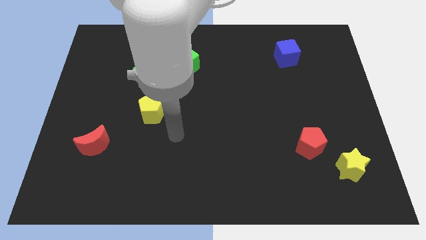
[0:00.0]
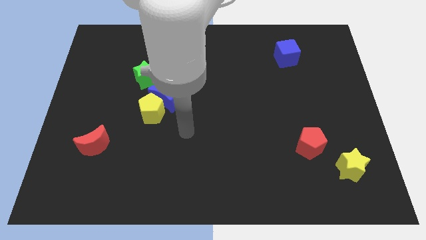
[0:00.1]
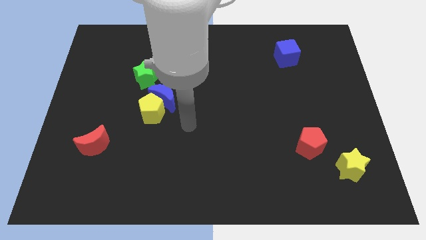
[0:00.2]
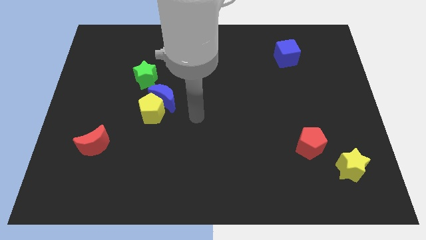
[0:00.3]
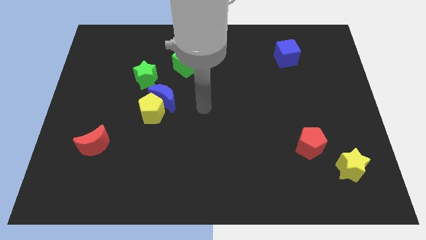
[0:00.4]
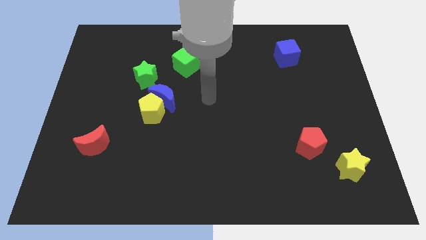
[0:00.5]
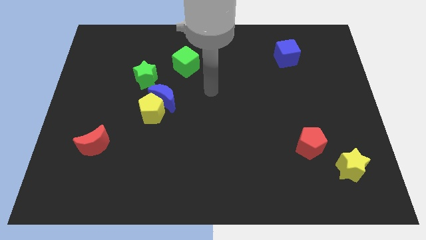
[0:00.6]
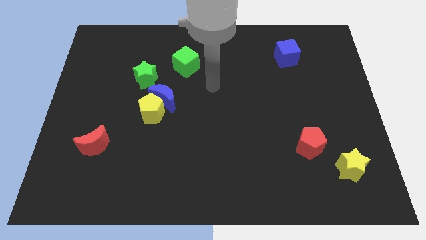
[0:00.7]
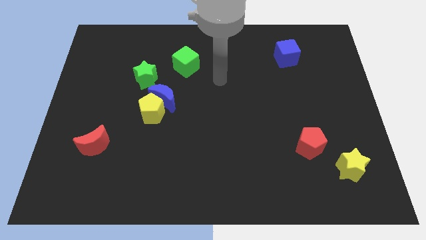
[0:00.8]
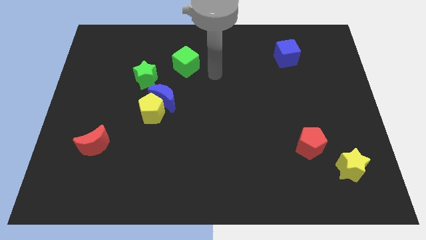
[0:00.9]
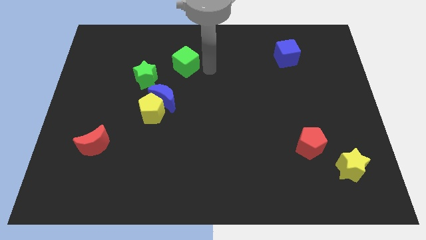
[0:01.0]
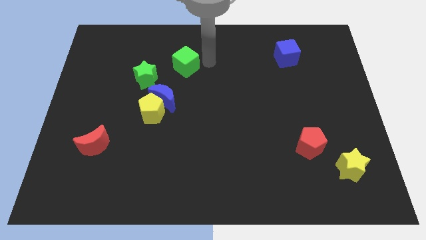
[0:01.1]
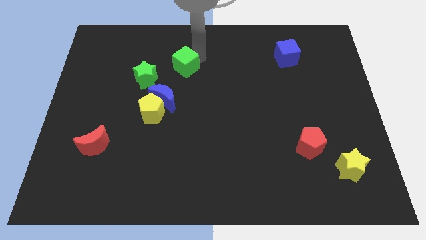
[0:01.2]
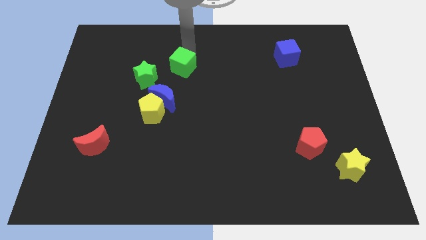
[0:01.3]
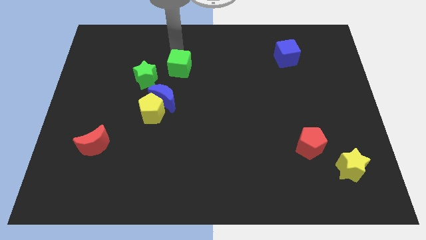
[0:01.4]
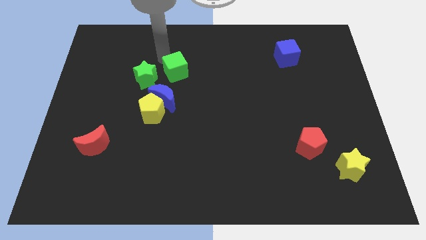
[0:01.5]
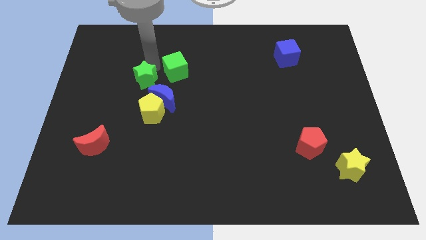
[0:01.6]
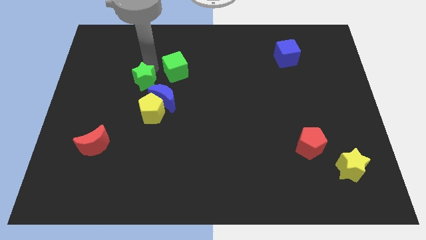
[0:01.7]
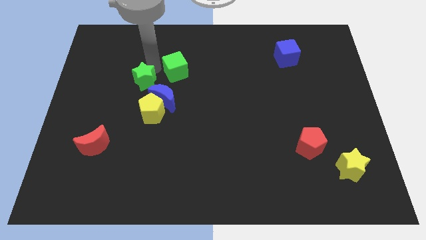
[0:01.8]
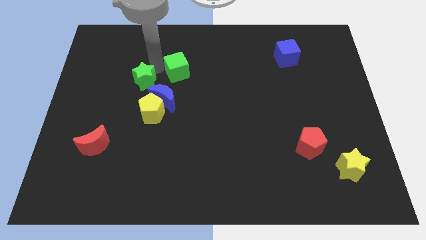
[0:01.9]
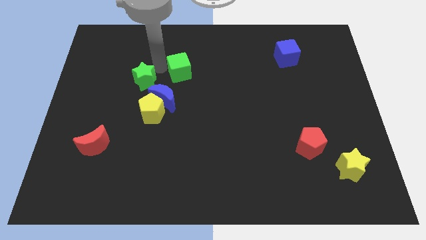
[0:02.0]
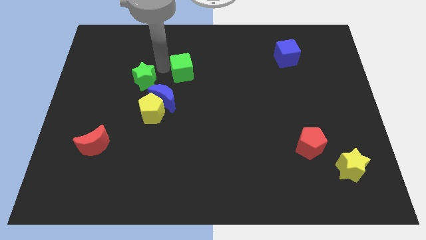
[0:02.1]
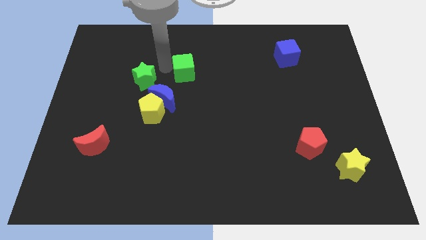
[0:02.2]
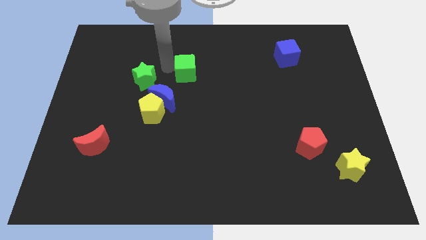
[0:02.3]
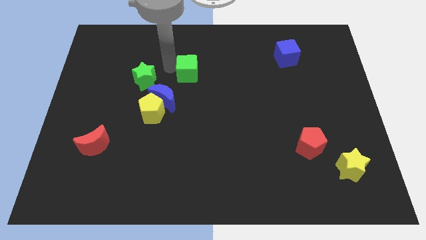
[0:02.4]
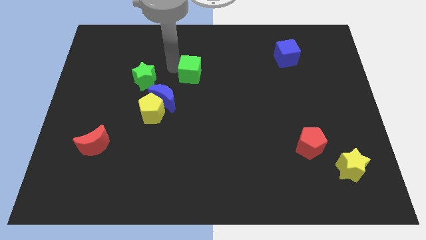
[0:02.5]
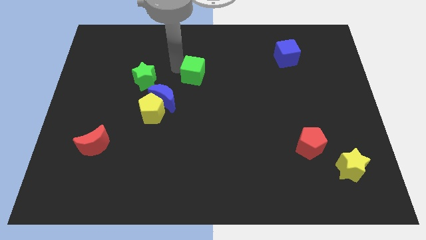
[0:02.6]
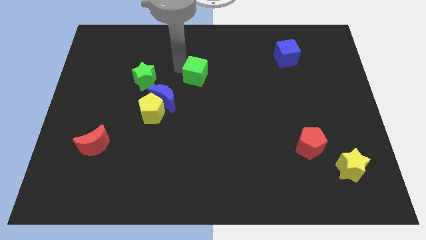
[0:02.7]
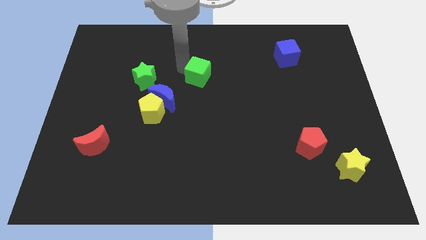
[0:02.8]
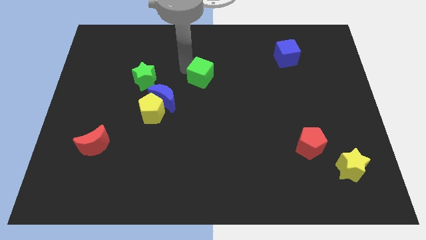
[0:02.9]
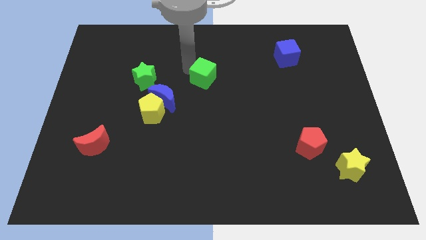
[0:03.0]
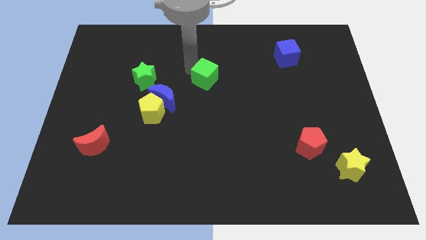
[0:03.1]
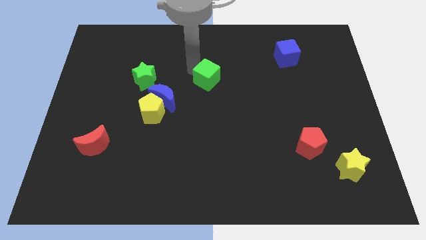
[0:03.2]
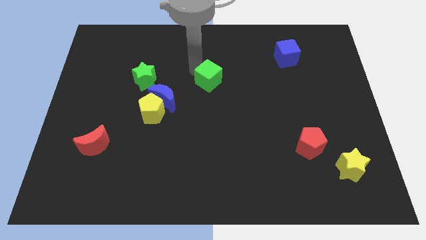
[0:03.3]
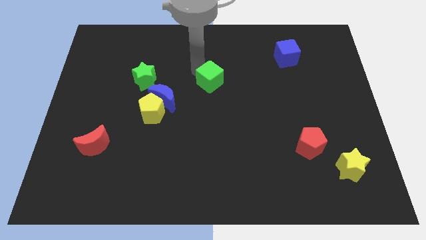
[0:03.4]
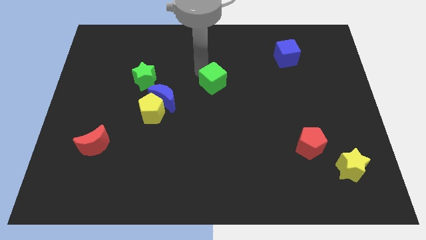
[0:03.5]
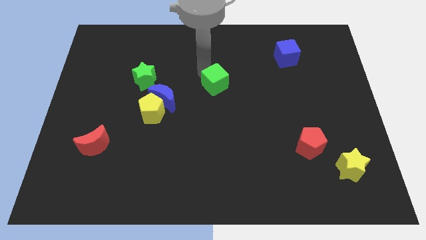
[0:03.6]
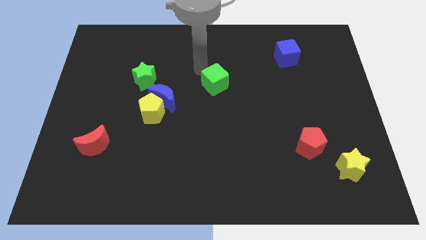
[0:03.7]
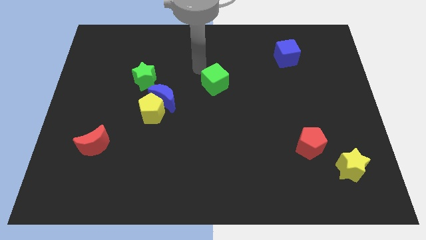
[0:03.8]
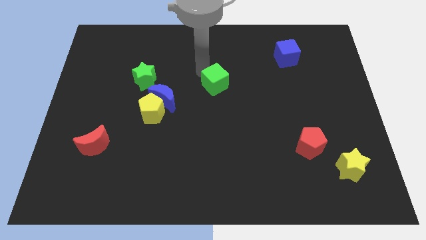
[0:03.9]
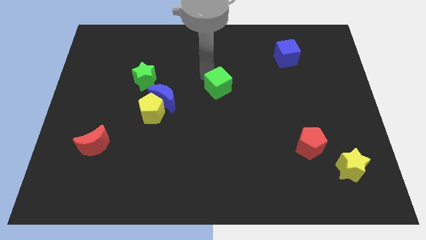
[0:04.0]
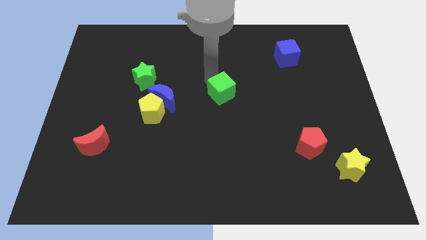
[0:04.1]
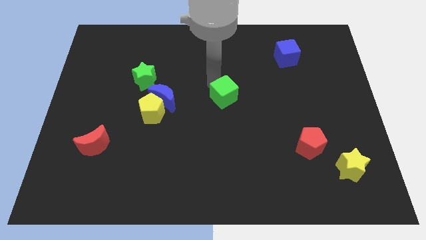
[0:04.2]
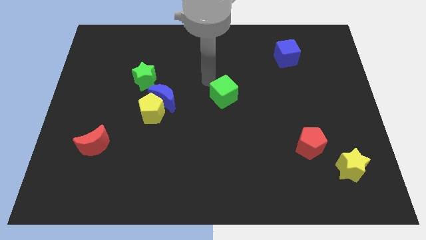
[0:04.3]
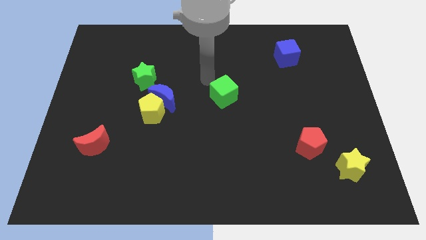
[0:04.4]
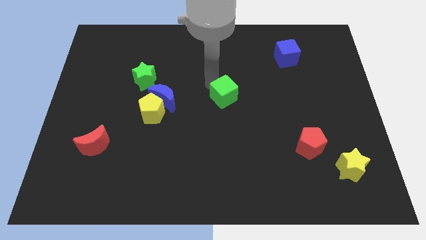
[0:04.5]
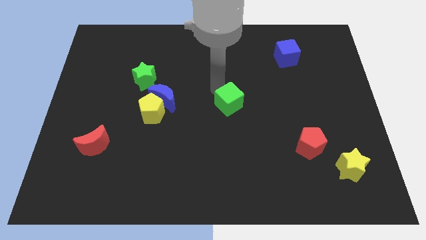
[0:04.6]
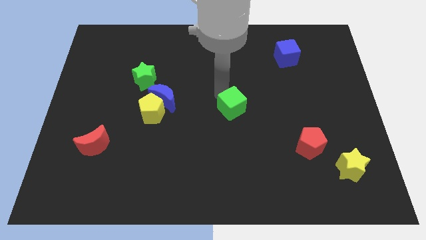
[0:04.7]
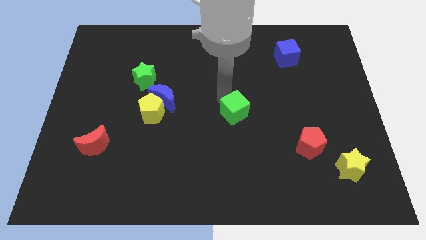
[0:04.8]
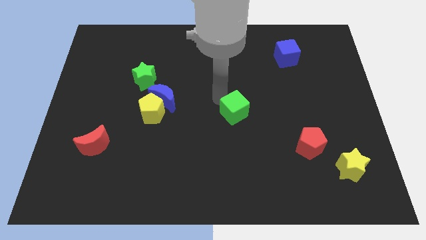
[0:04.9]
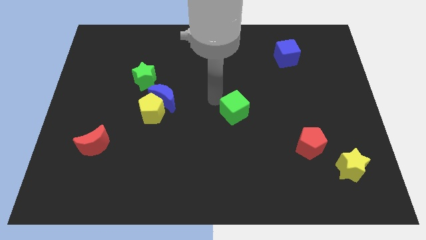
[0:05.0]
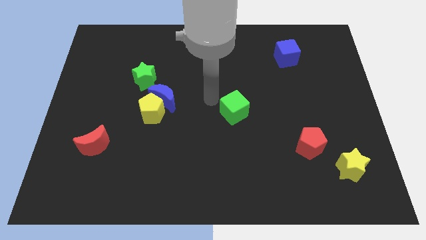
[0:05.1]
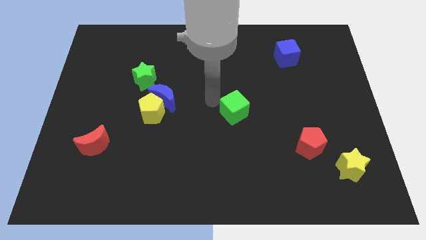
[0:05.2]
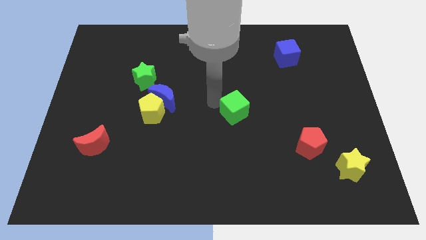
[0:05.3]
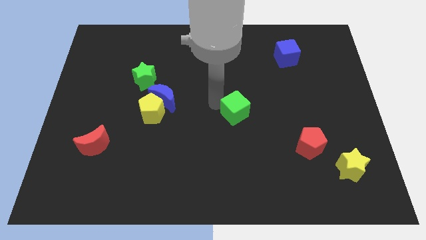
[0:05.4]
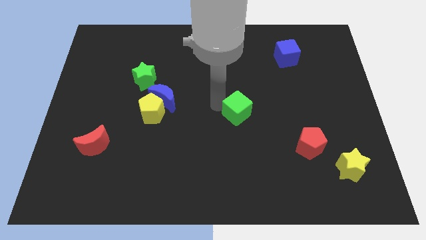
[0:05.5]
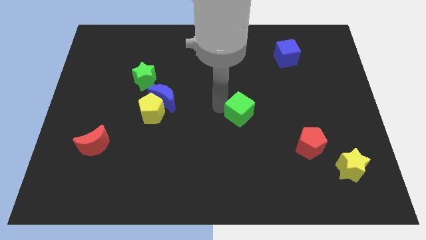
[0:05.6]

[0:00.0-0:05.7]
push the green cube downwards and right diagonally

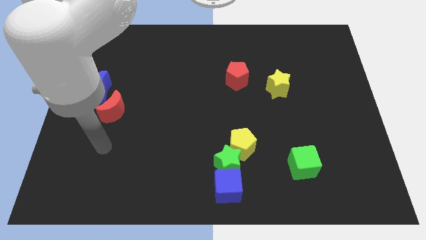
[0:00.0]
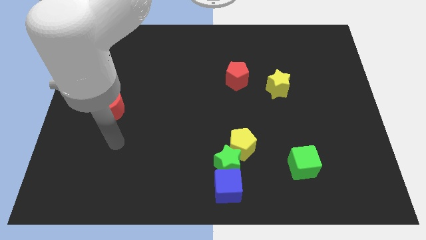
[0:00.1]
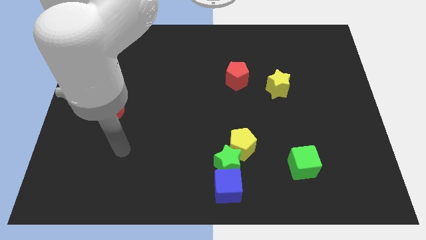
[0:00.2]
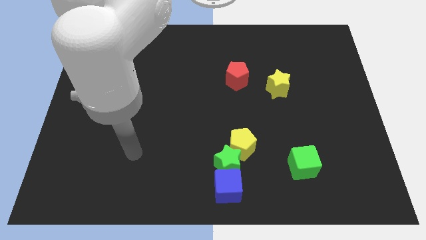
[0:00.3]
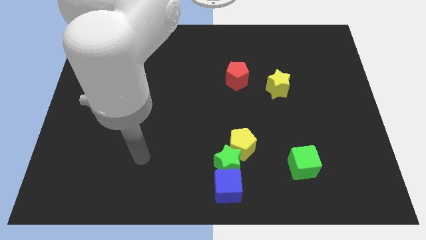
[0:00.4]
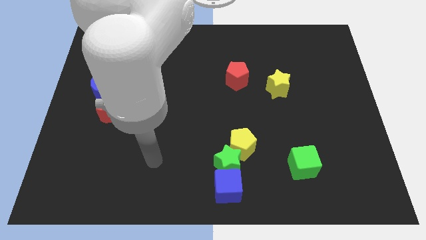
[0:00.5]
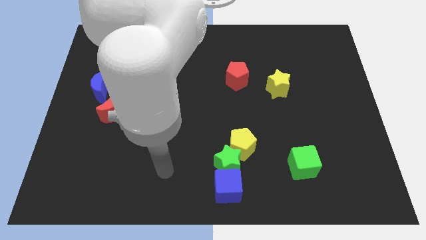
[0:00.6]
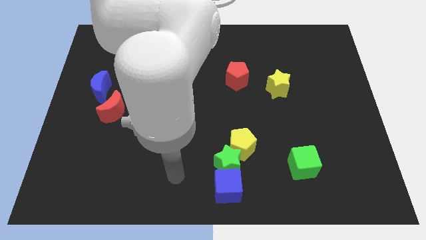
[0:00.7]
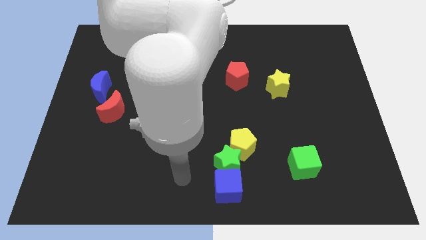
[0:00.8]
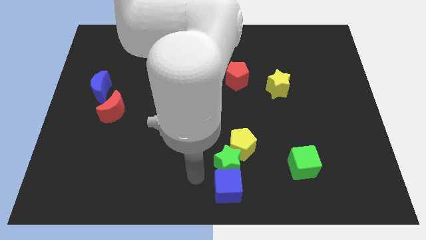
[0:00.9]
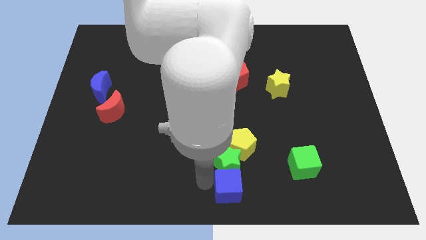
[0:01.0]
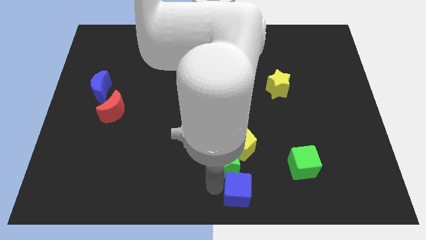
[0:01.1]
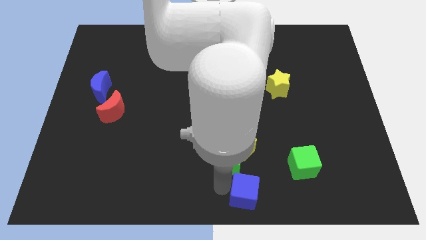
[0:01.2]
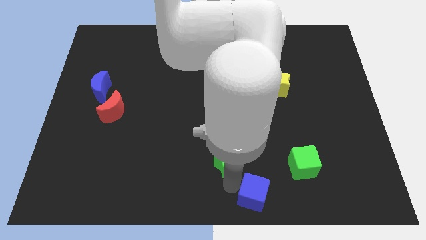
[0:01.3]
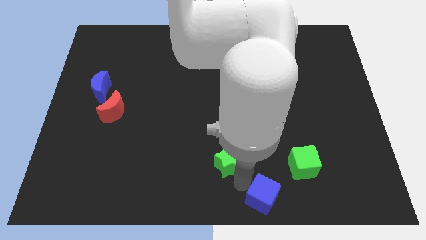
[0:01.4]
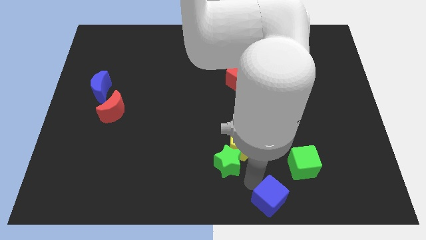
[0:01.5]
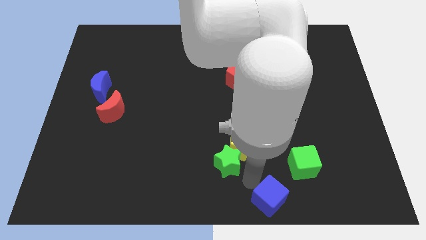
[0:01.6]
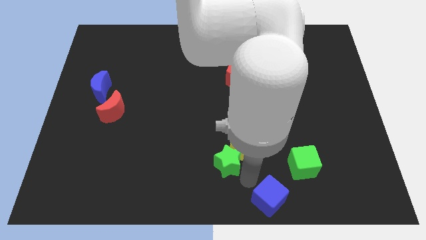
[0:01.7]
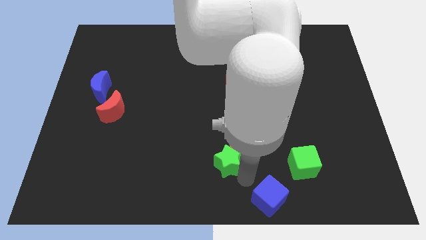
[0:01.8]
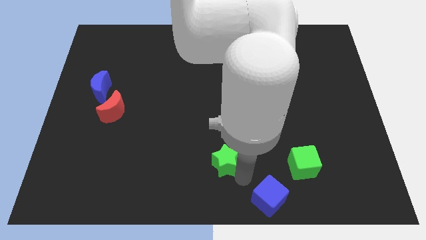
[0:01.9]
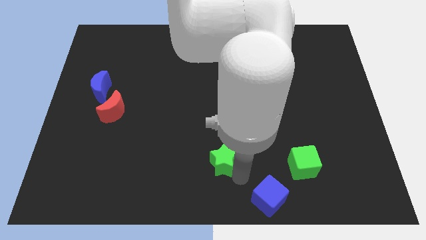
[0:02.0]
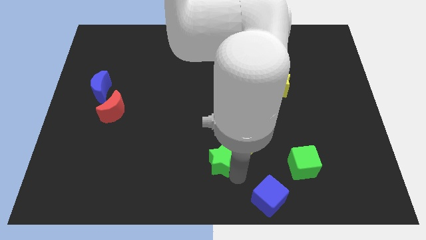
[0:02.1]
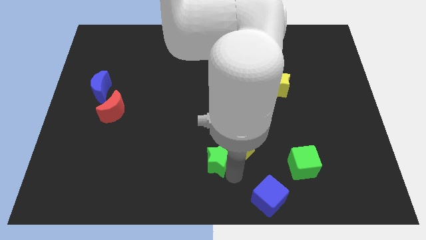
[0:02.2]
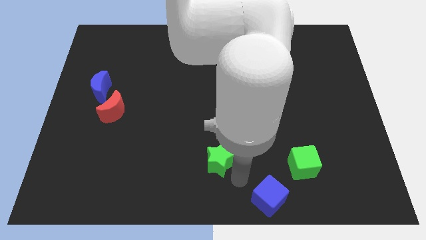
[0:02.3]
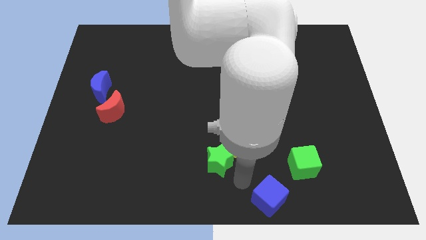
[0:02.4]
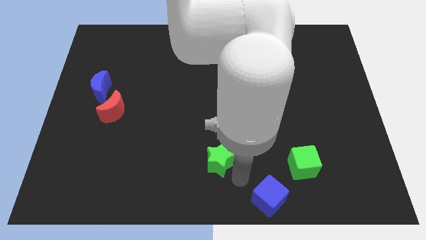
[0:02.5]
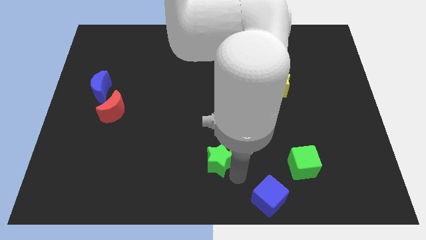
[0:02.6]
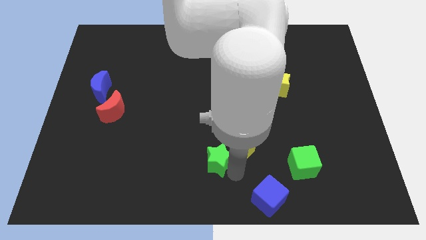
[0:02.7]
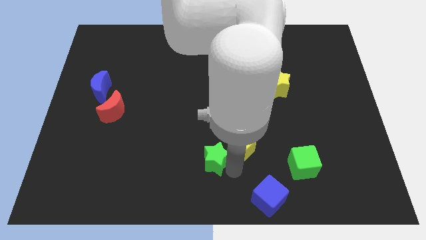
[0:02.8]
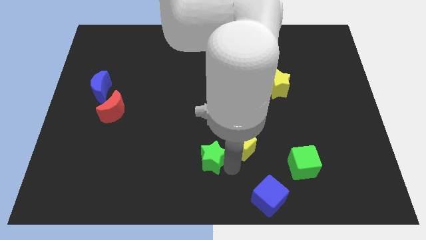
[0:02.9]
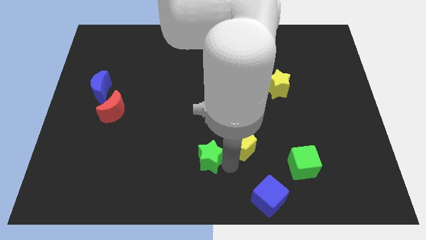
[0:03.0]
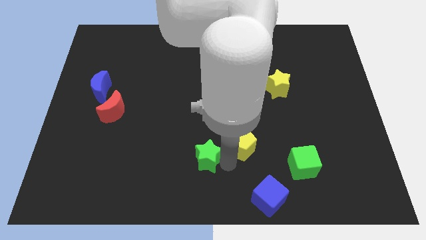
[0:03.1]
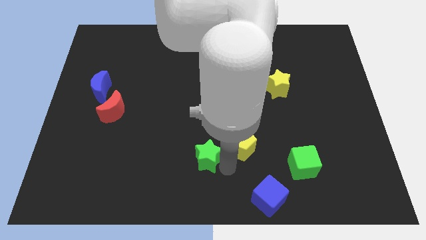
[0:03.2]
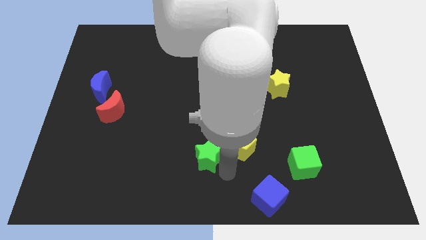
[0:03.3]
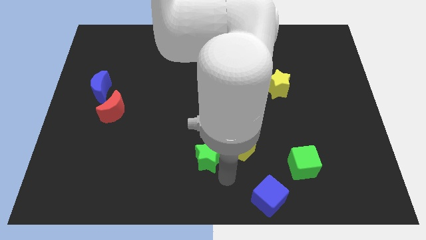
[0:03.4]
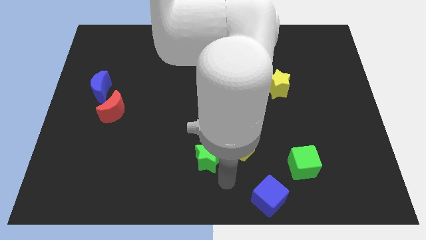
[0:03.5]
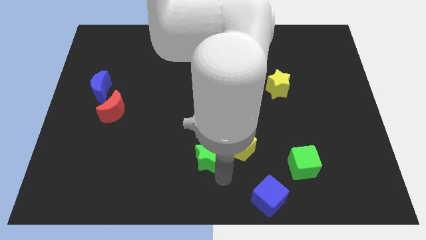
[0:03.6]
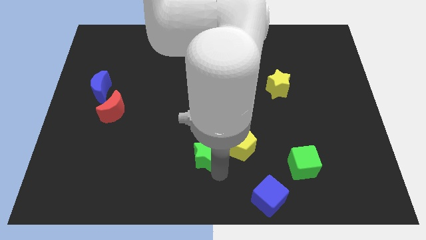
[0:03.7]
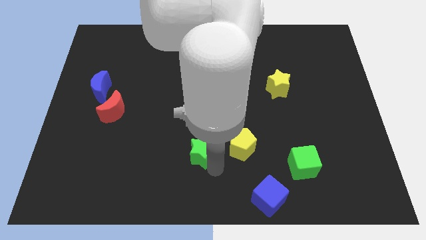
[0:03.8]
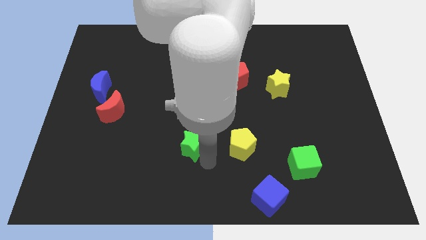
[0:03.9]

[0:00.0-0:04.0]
slightly slide the green star diagonally upwards and left
